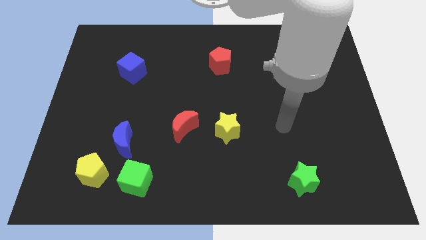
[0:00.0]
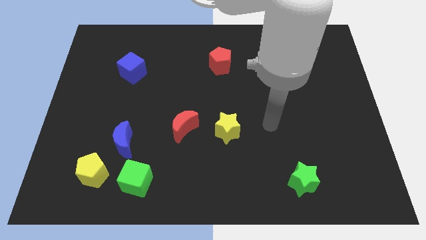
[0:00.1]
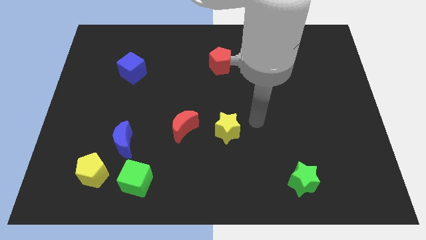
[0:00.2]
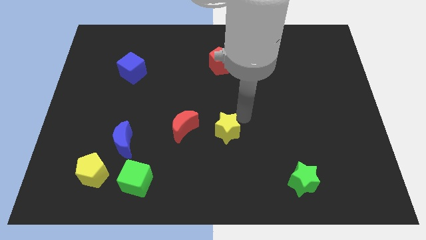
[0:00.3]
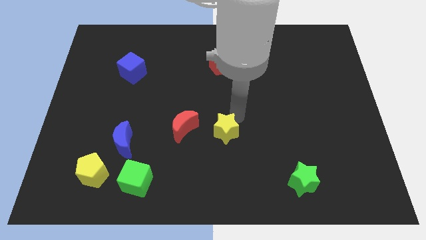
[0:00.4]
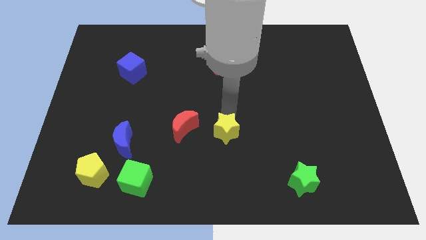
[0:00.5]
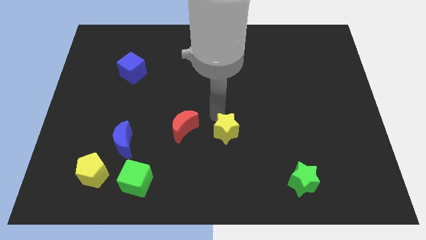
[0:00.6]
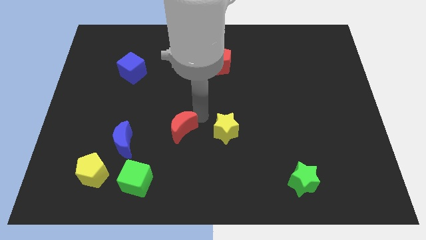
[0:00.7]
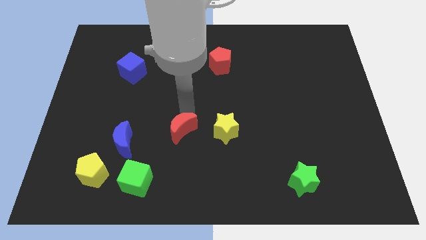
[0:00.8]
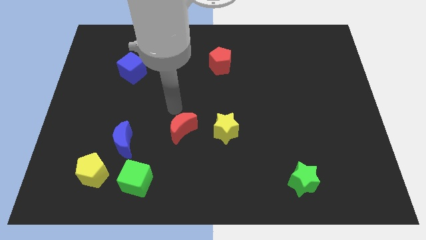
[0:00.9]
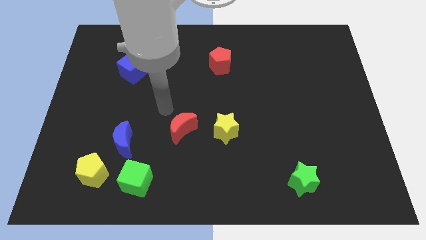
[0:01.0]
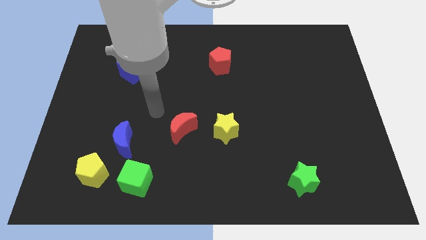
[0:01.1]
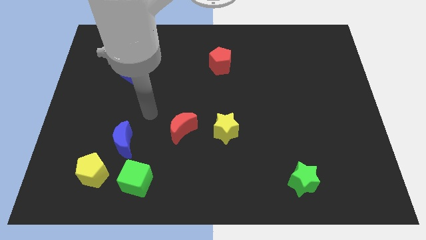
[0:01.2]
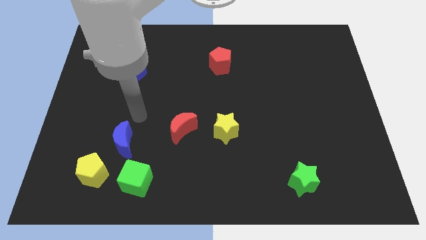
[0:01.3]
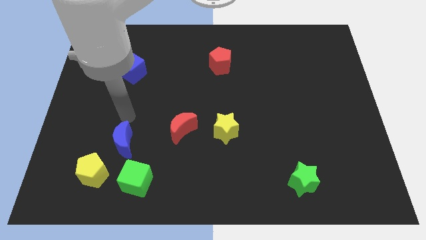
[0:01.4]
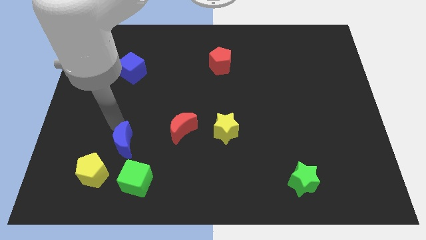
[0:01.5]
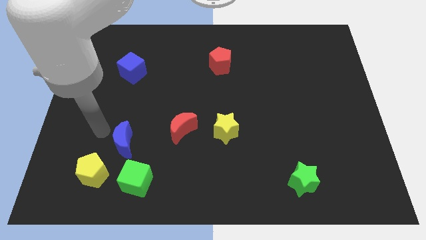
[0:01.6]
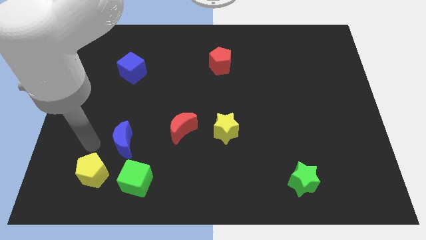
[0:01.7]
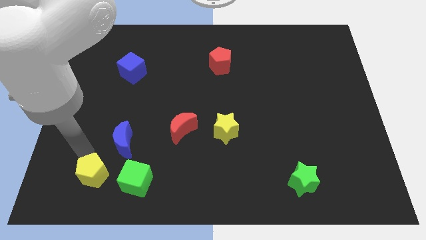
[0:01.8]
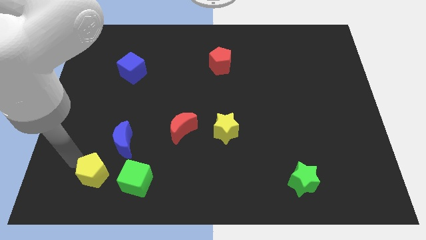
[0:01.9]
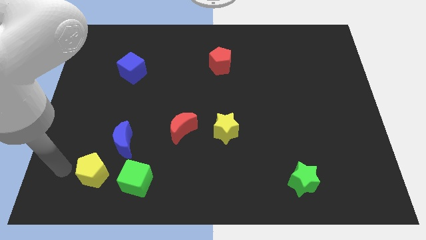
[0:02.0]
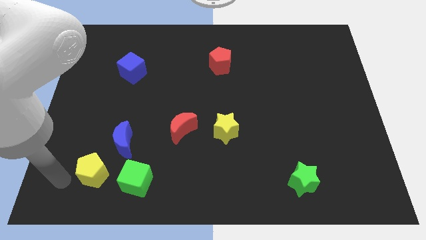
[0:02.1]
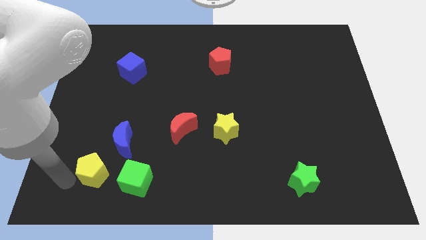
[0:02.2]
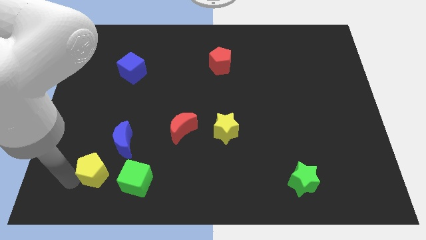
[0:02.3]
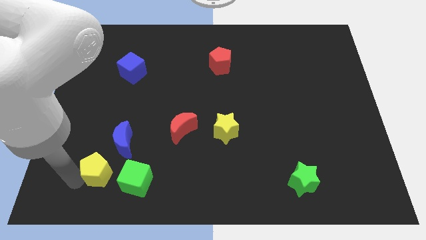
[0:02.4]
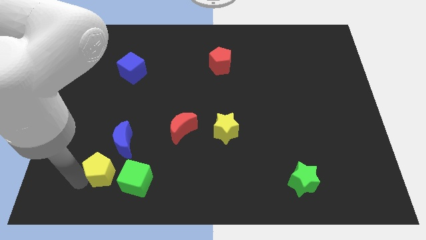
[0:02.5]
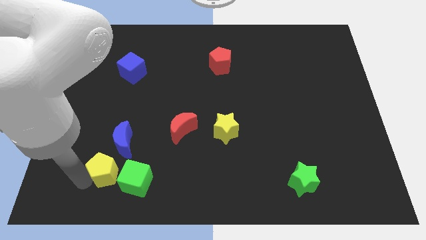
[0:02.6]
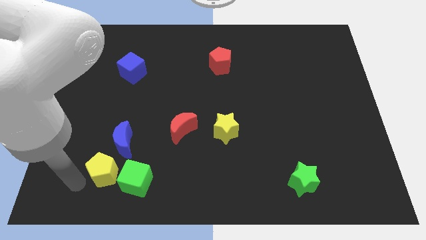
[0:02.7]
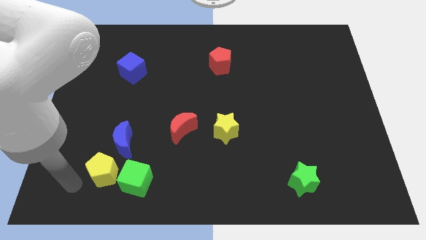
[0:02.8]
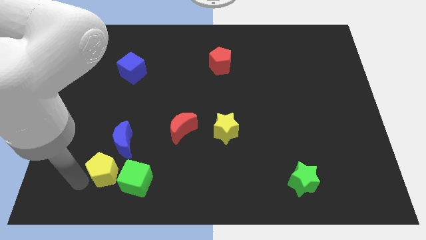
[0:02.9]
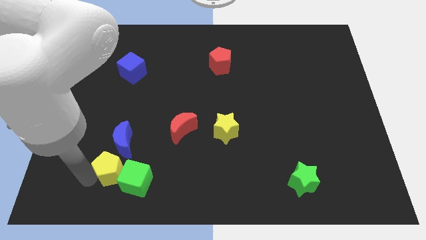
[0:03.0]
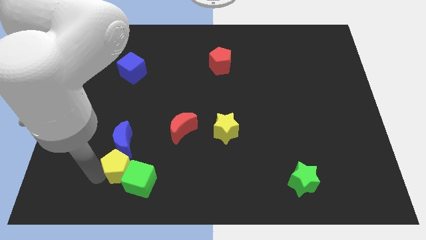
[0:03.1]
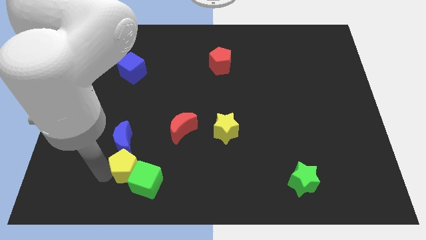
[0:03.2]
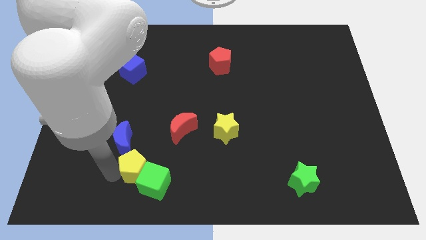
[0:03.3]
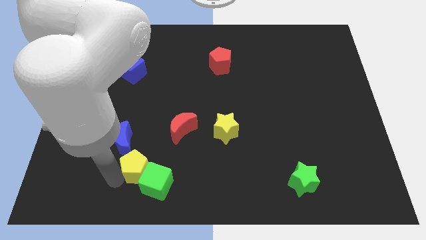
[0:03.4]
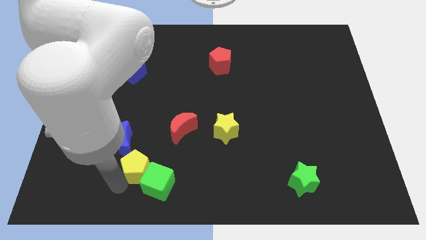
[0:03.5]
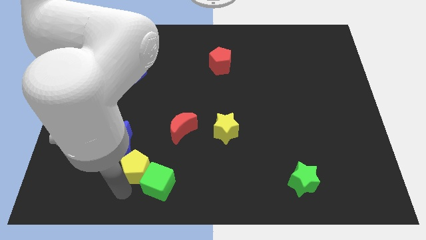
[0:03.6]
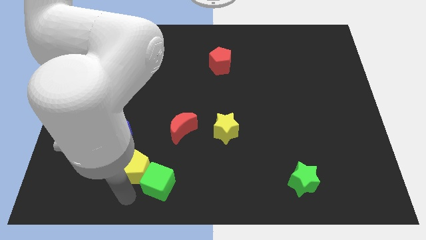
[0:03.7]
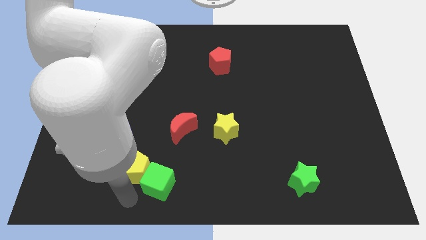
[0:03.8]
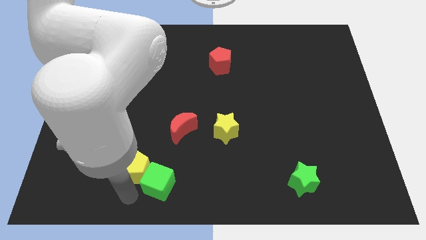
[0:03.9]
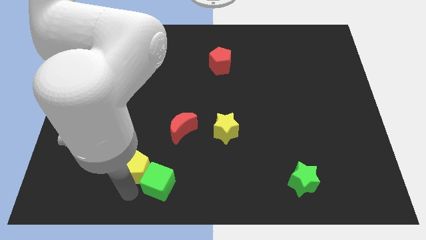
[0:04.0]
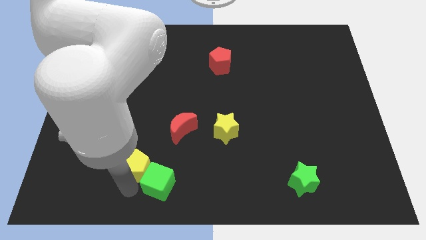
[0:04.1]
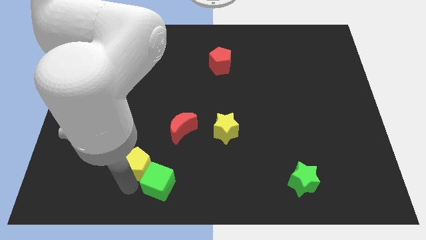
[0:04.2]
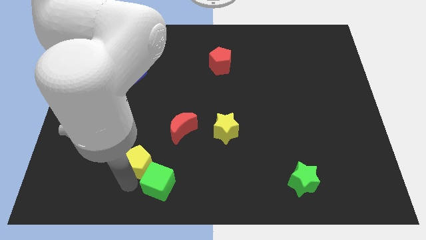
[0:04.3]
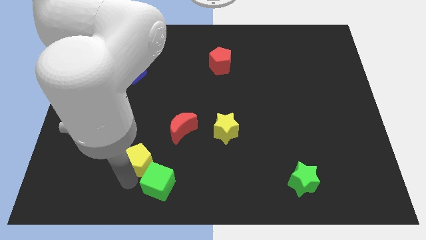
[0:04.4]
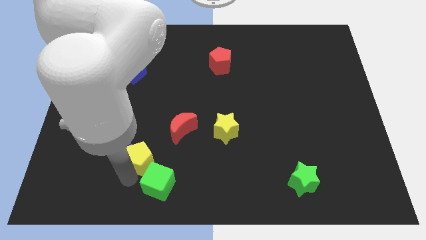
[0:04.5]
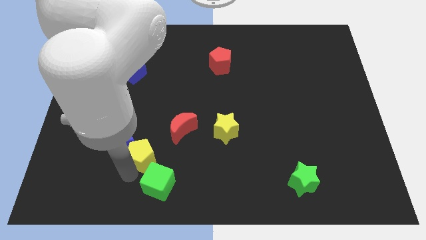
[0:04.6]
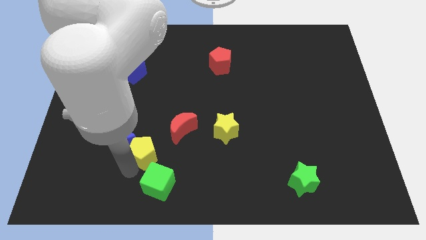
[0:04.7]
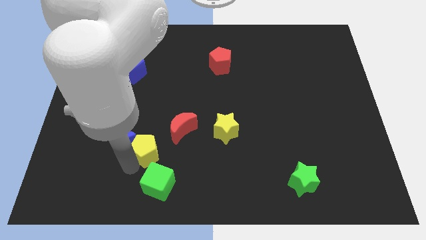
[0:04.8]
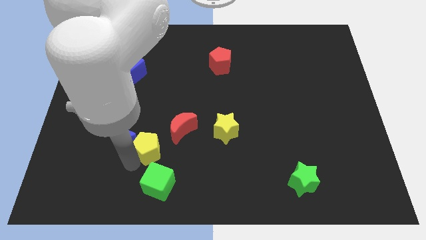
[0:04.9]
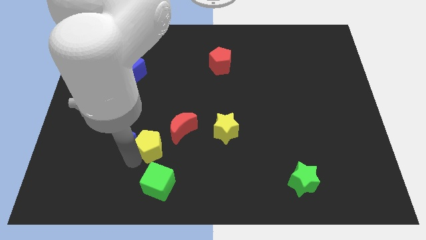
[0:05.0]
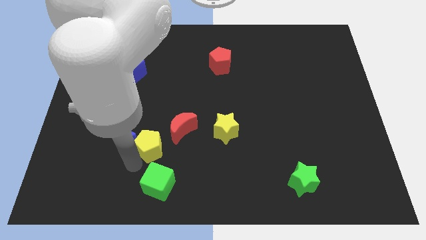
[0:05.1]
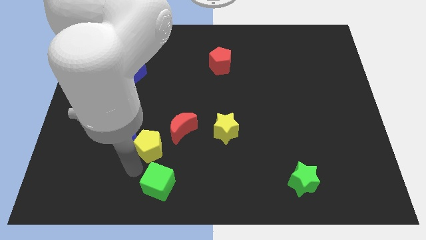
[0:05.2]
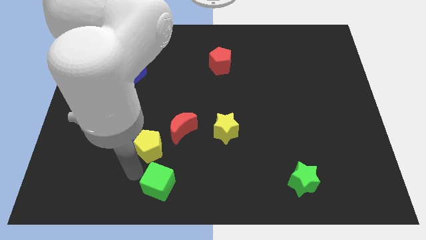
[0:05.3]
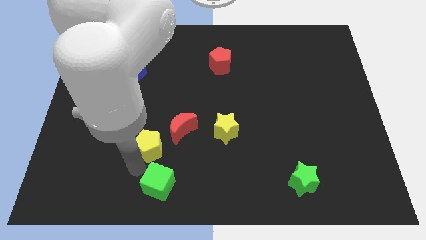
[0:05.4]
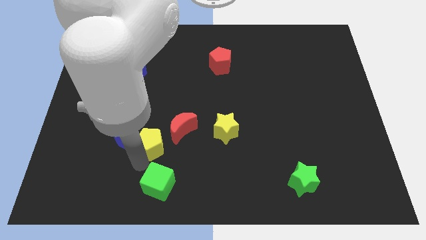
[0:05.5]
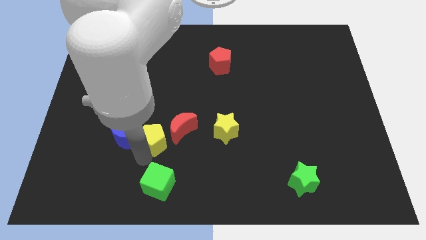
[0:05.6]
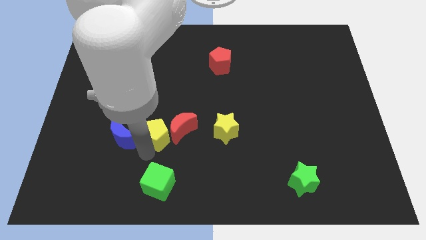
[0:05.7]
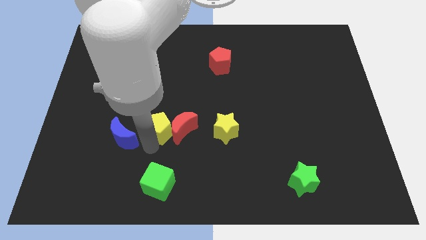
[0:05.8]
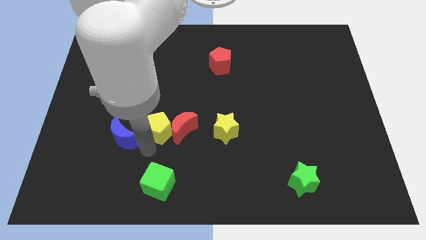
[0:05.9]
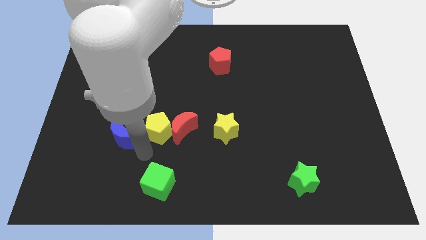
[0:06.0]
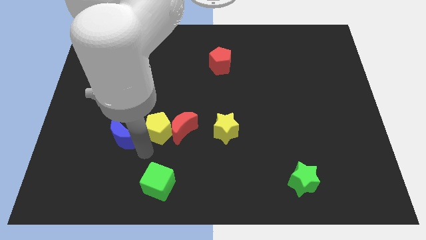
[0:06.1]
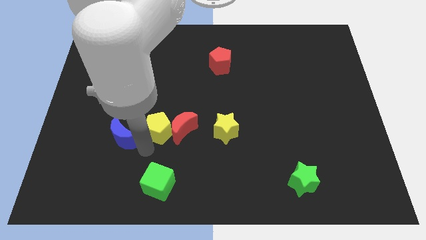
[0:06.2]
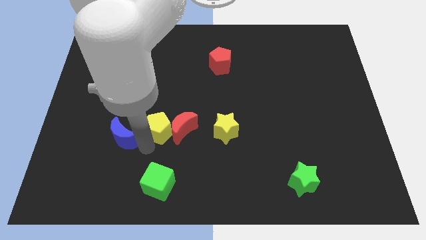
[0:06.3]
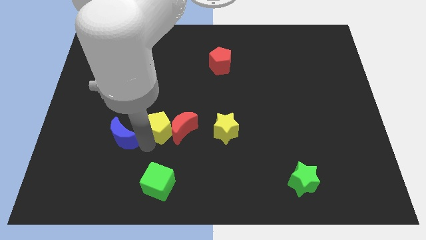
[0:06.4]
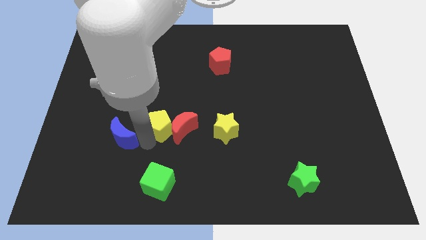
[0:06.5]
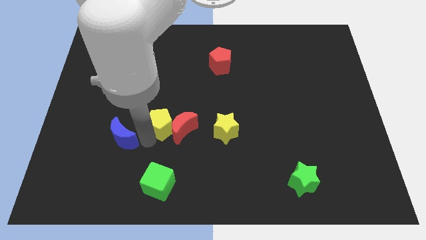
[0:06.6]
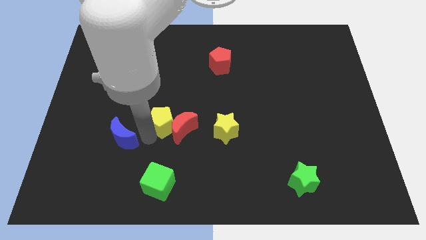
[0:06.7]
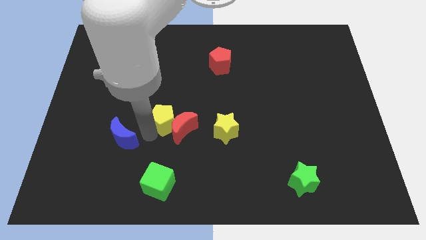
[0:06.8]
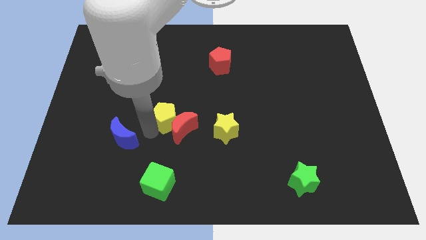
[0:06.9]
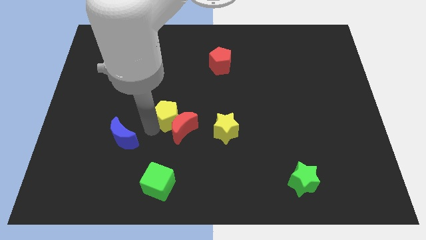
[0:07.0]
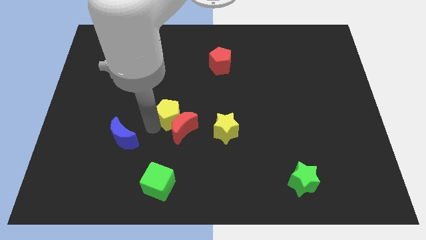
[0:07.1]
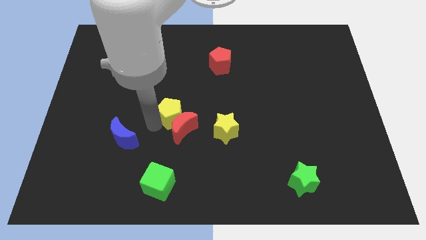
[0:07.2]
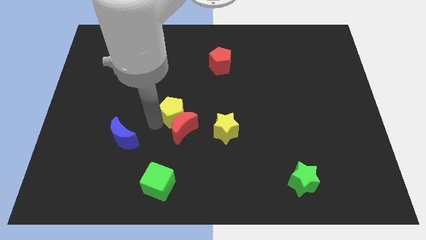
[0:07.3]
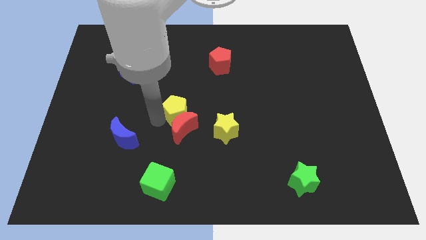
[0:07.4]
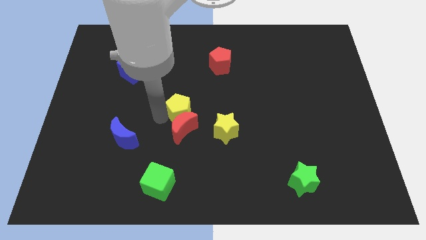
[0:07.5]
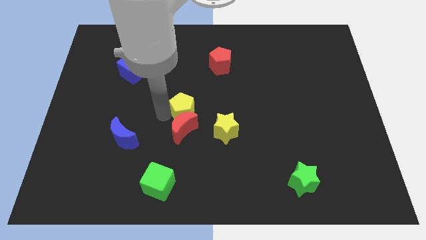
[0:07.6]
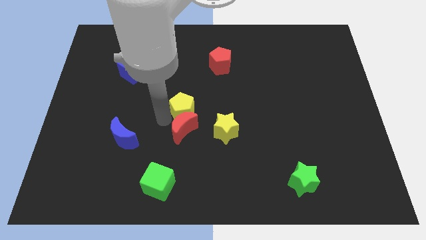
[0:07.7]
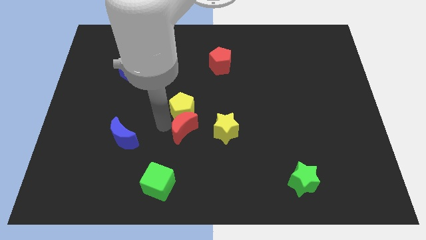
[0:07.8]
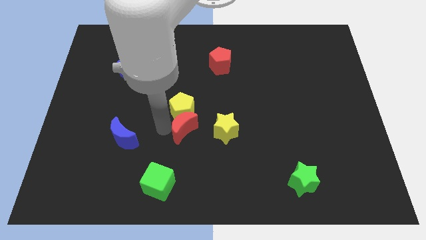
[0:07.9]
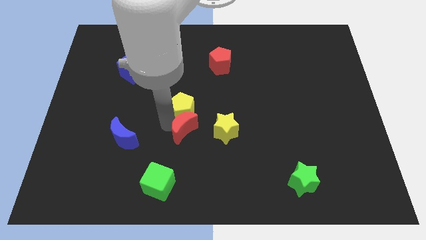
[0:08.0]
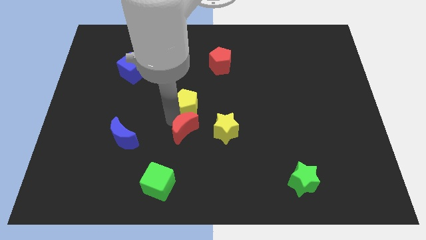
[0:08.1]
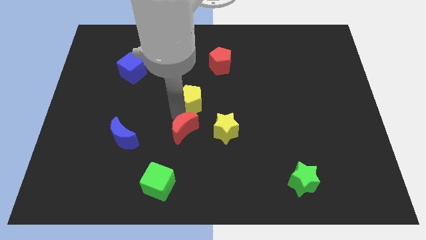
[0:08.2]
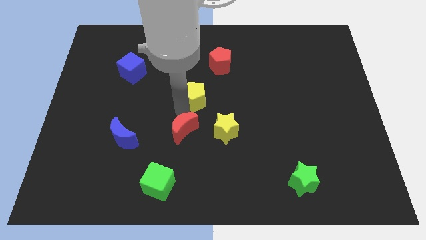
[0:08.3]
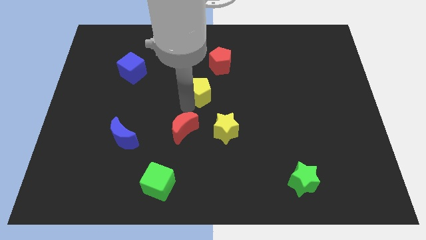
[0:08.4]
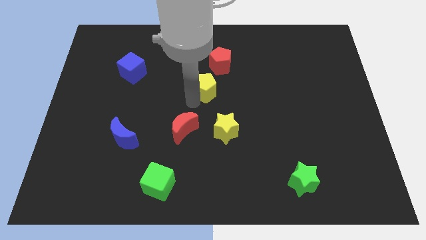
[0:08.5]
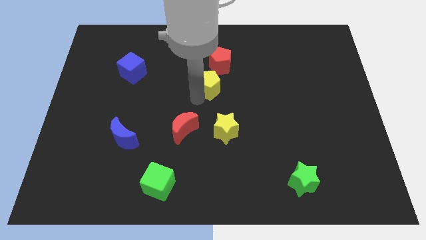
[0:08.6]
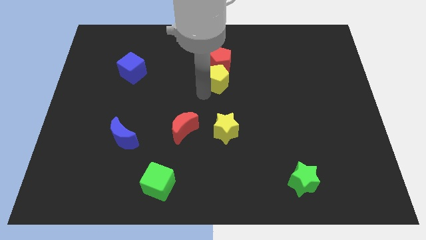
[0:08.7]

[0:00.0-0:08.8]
move the yellow pentagon towards the red pentagon
